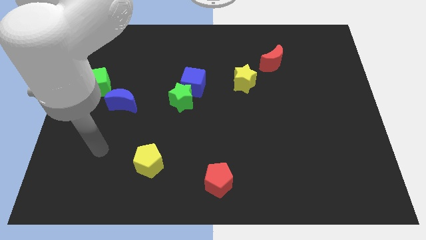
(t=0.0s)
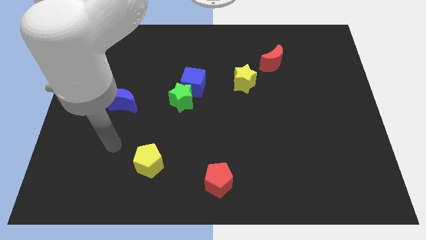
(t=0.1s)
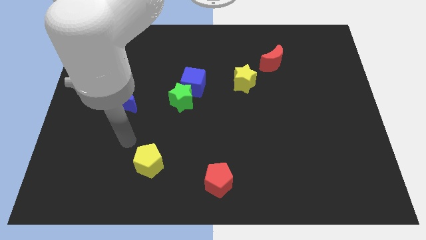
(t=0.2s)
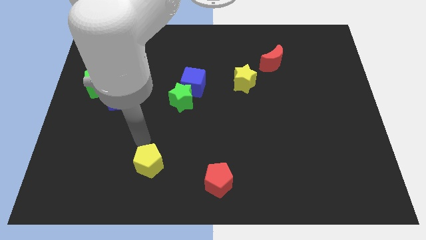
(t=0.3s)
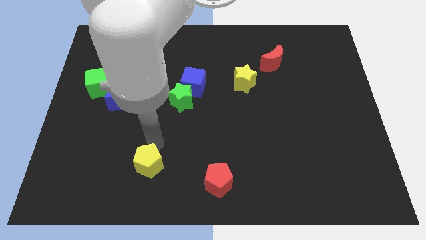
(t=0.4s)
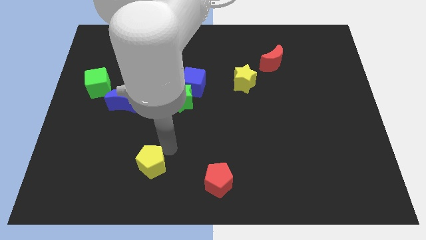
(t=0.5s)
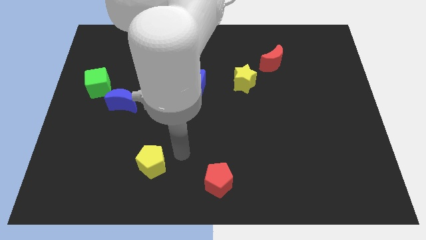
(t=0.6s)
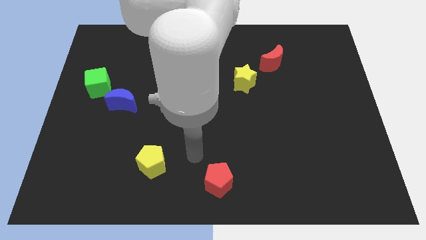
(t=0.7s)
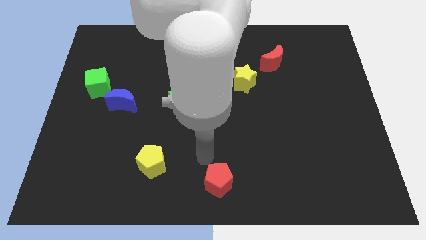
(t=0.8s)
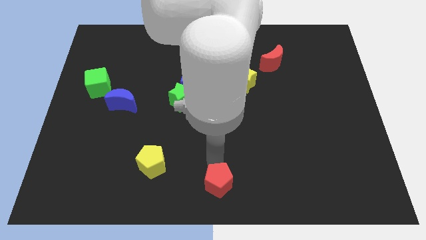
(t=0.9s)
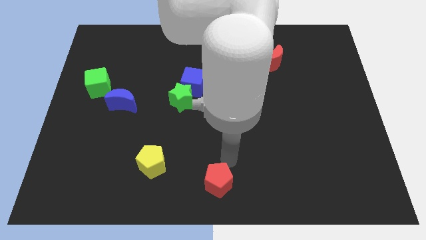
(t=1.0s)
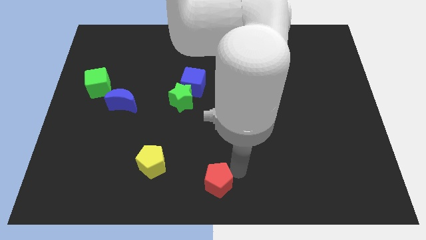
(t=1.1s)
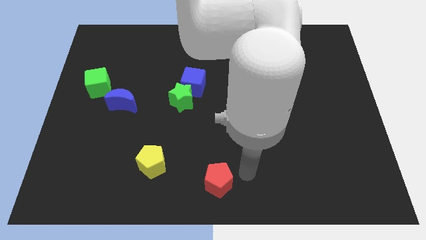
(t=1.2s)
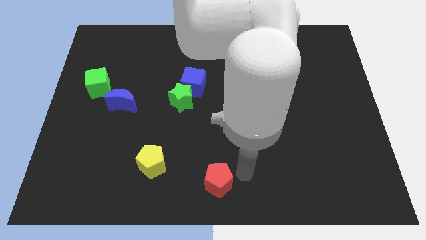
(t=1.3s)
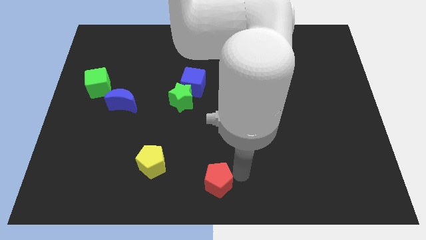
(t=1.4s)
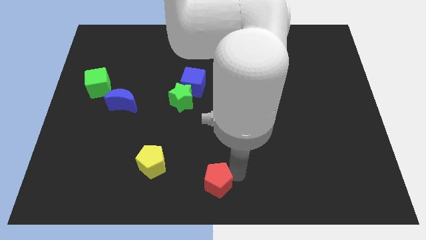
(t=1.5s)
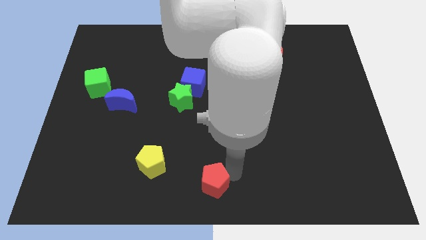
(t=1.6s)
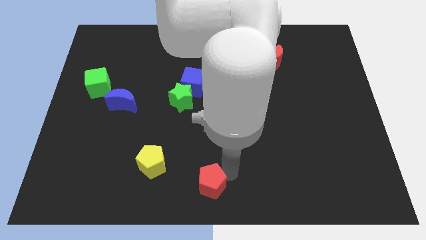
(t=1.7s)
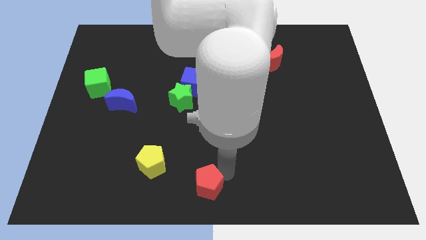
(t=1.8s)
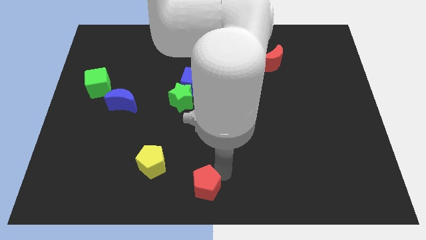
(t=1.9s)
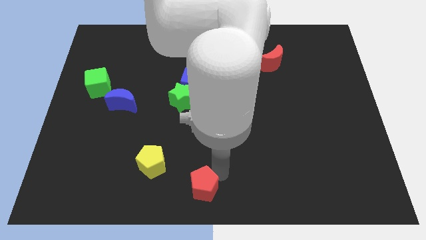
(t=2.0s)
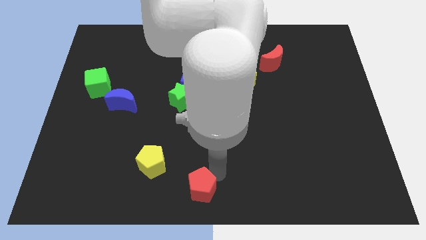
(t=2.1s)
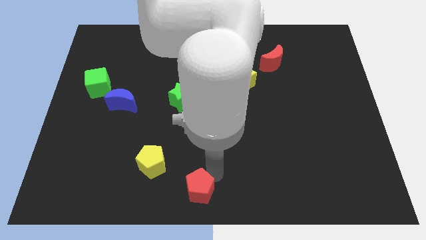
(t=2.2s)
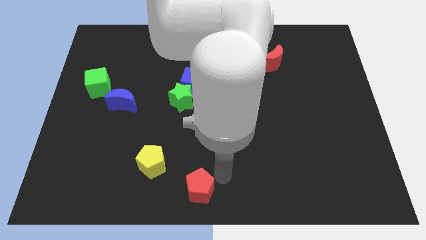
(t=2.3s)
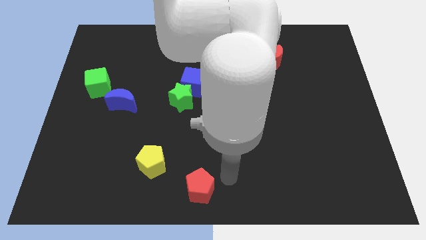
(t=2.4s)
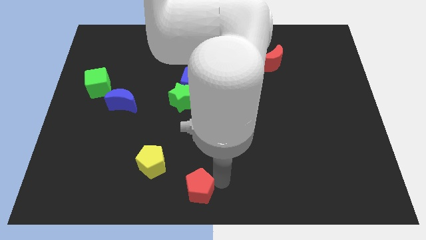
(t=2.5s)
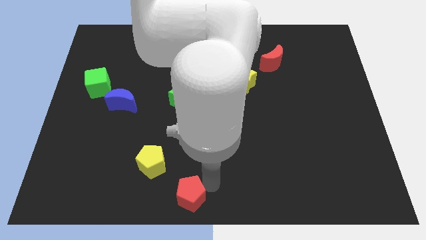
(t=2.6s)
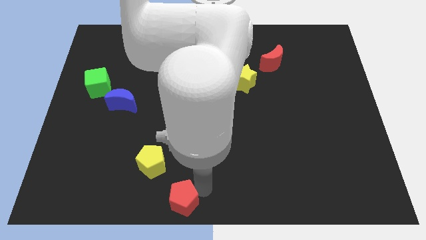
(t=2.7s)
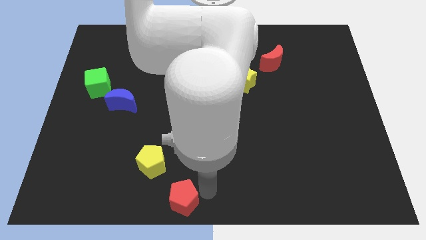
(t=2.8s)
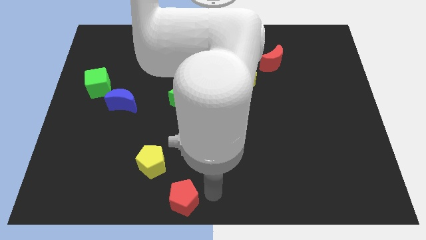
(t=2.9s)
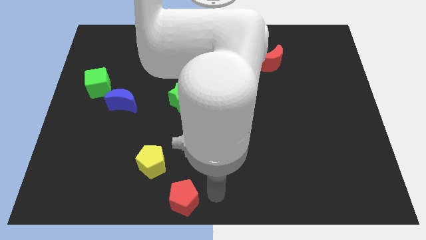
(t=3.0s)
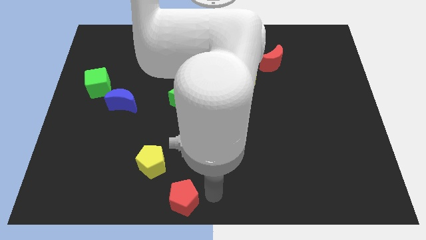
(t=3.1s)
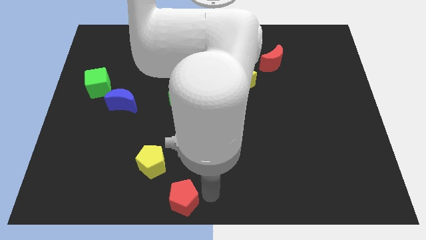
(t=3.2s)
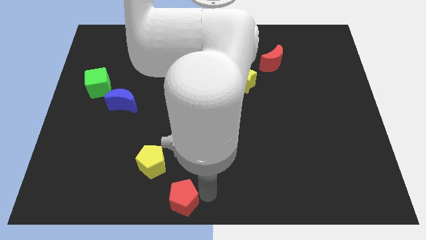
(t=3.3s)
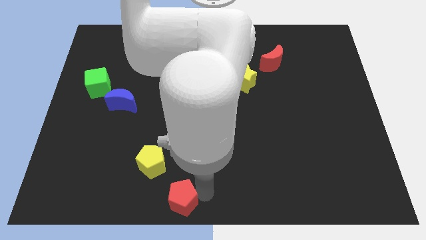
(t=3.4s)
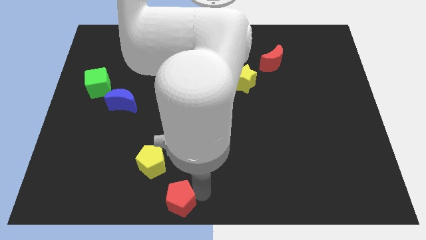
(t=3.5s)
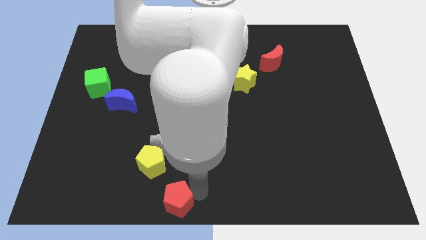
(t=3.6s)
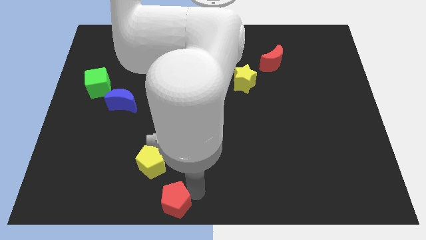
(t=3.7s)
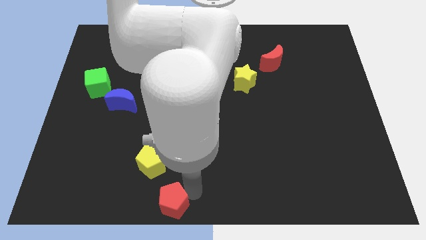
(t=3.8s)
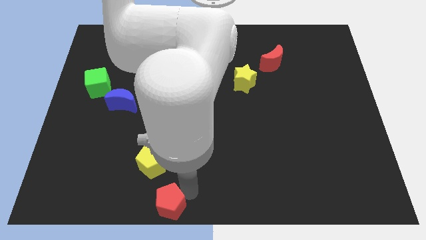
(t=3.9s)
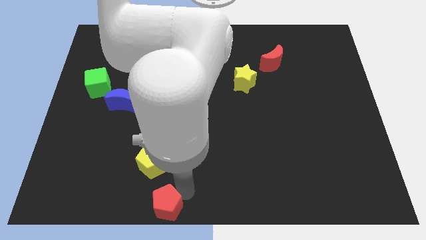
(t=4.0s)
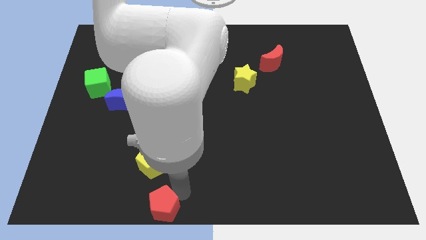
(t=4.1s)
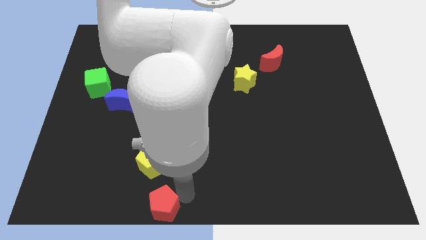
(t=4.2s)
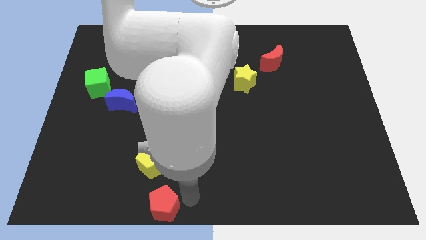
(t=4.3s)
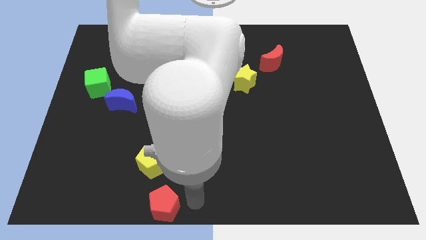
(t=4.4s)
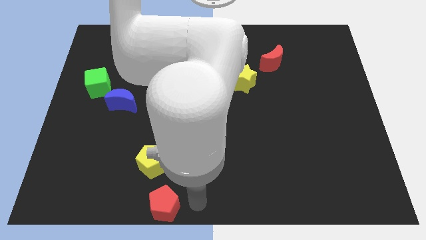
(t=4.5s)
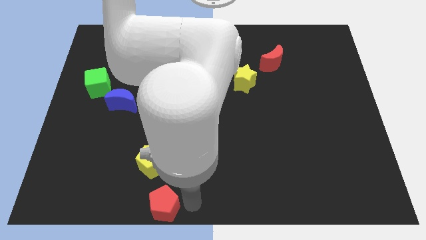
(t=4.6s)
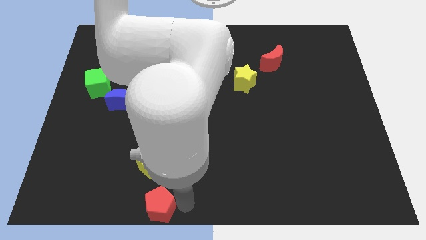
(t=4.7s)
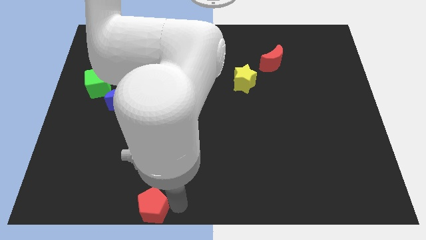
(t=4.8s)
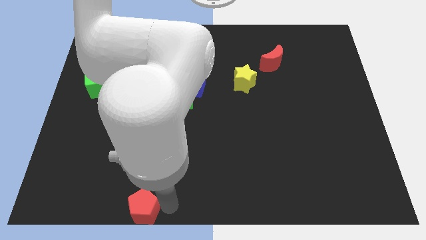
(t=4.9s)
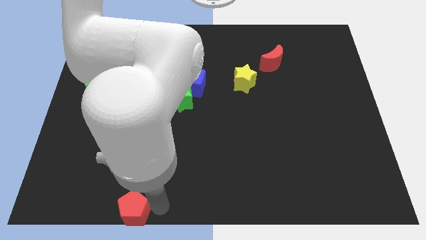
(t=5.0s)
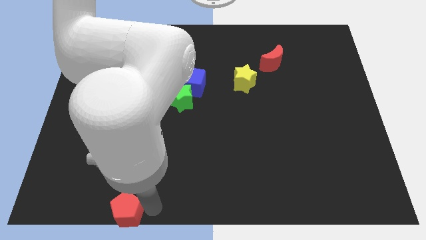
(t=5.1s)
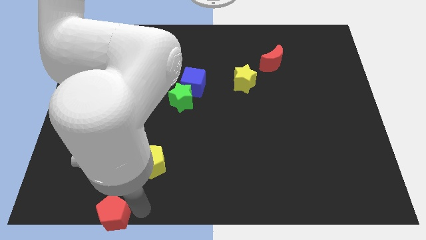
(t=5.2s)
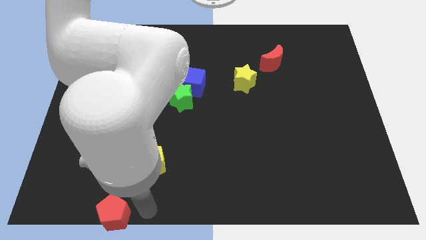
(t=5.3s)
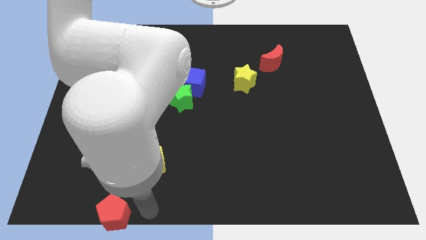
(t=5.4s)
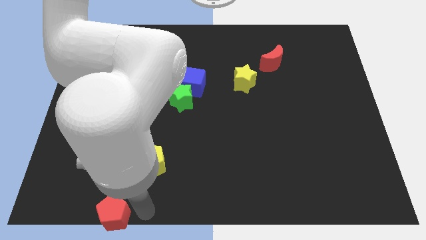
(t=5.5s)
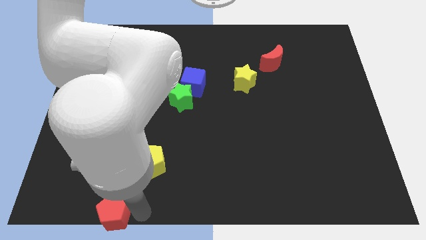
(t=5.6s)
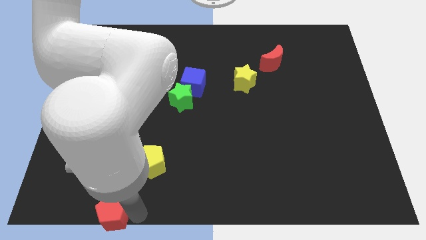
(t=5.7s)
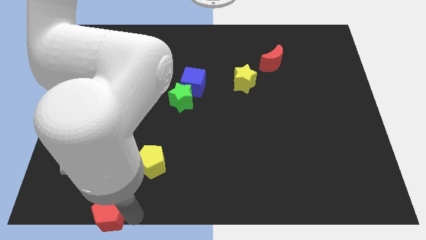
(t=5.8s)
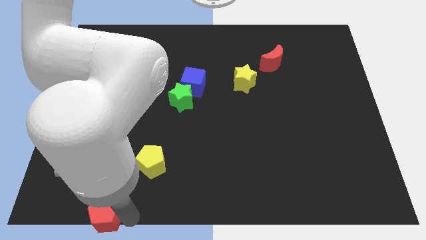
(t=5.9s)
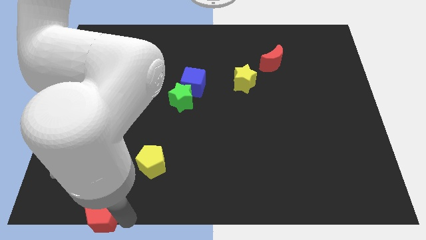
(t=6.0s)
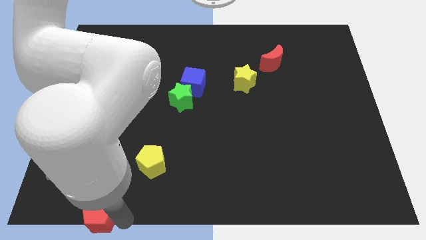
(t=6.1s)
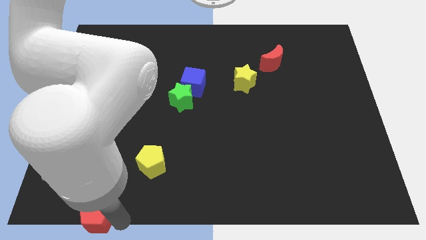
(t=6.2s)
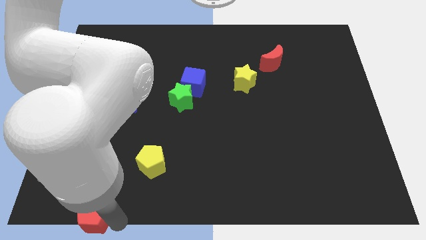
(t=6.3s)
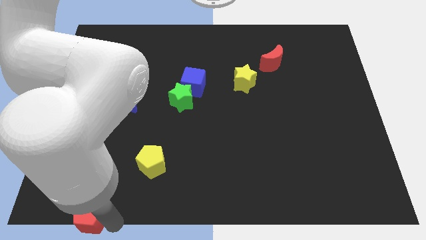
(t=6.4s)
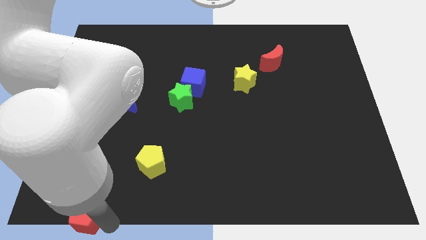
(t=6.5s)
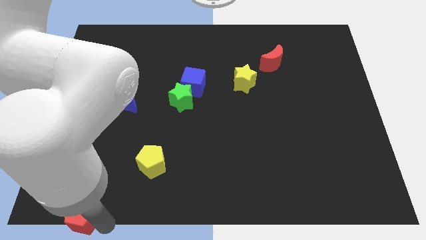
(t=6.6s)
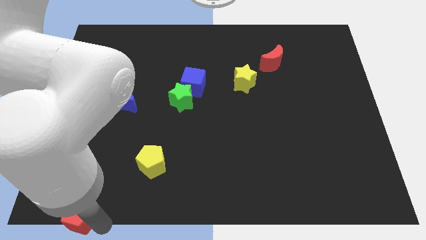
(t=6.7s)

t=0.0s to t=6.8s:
push the red pentagon to the bottom left corner

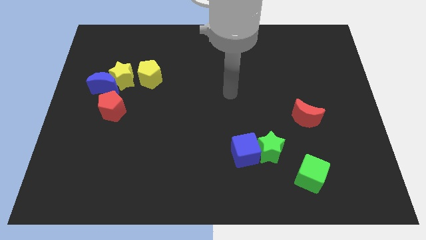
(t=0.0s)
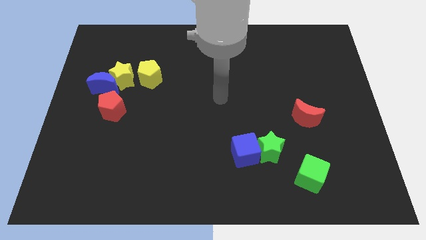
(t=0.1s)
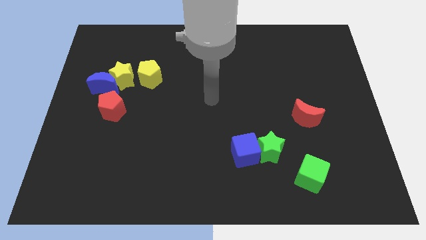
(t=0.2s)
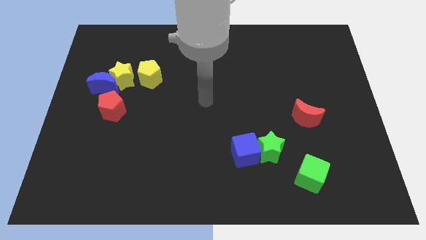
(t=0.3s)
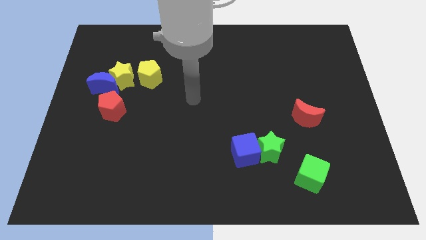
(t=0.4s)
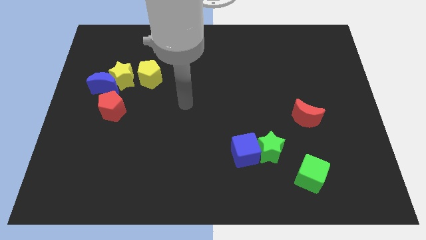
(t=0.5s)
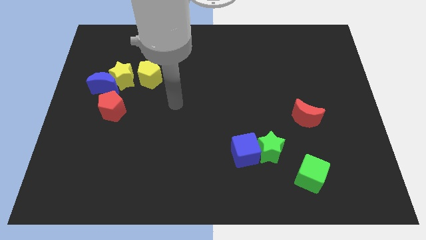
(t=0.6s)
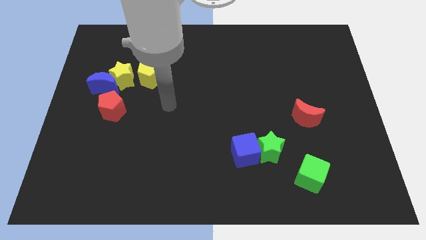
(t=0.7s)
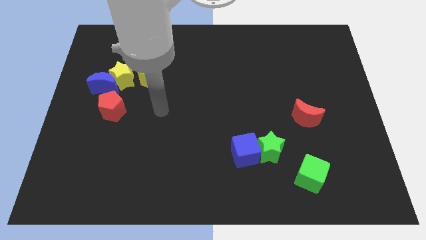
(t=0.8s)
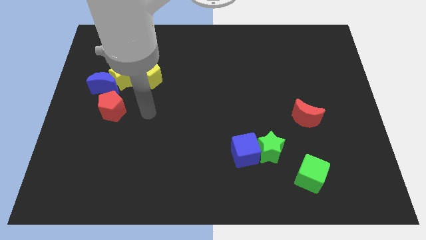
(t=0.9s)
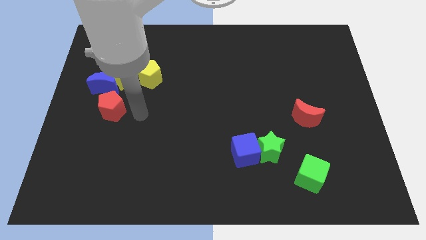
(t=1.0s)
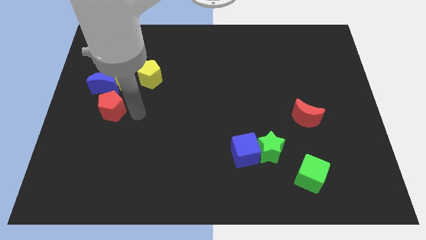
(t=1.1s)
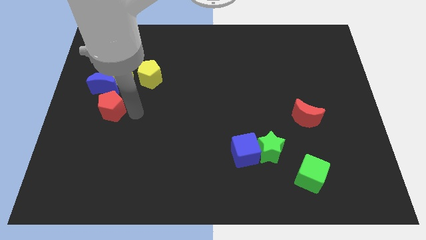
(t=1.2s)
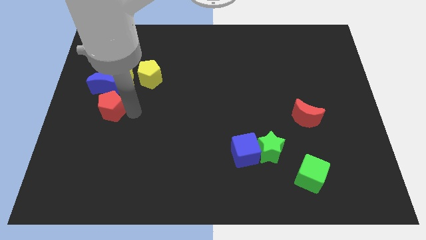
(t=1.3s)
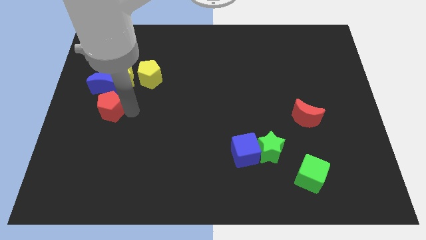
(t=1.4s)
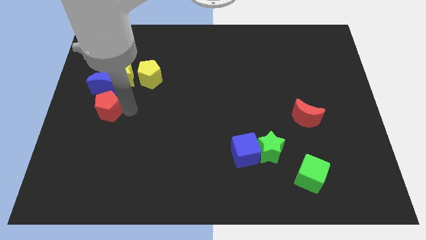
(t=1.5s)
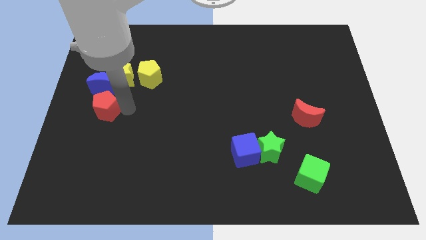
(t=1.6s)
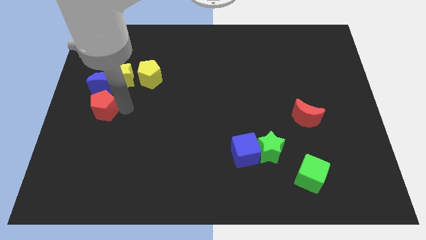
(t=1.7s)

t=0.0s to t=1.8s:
put the red pentagon to the center left
